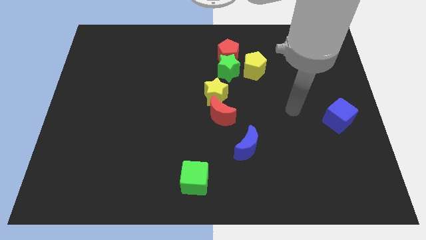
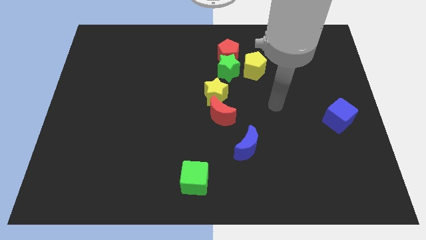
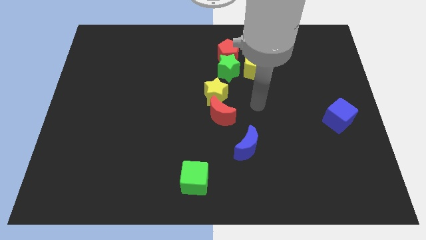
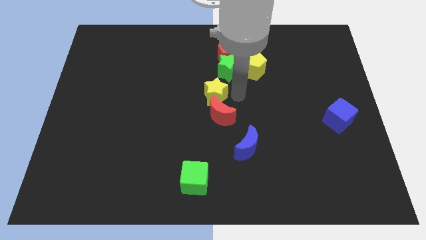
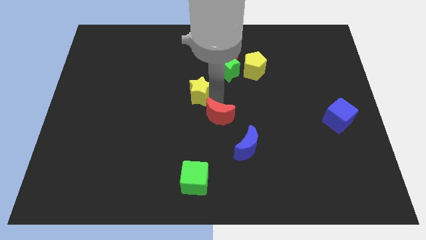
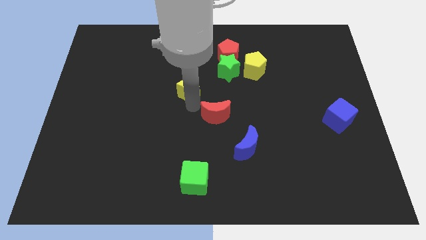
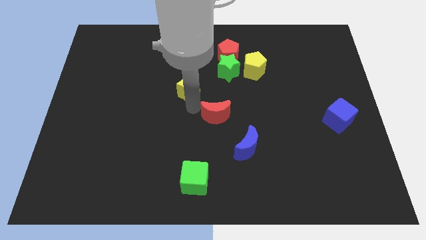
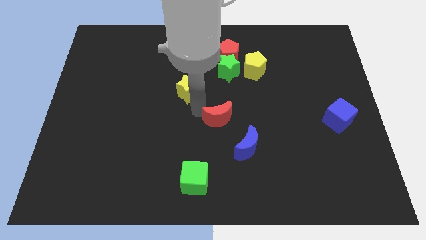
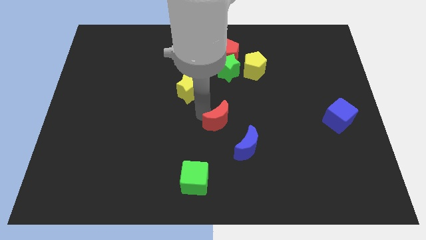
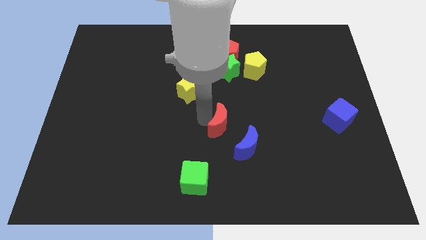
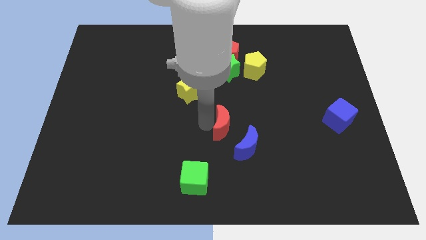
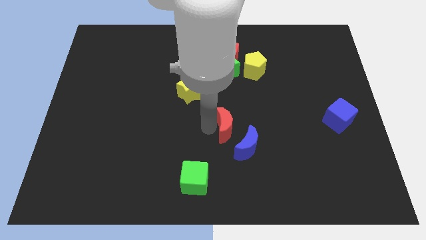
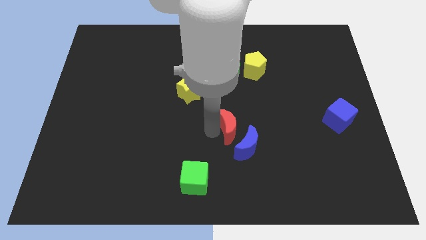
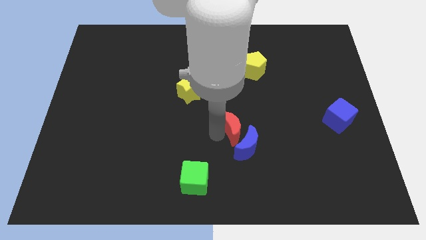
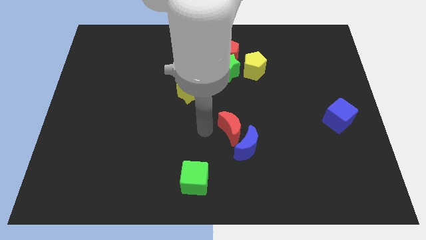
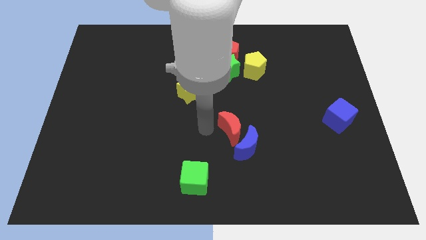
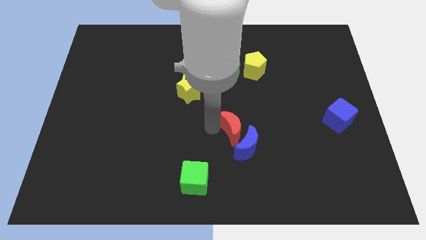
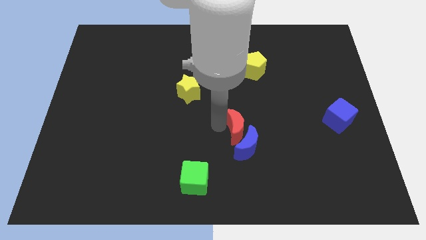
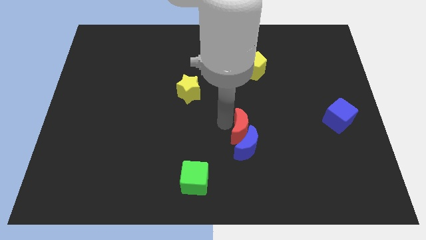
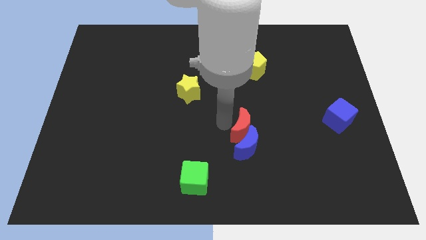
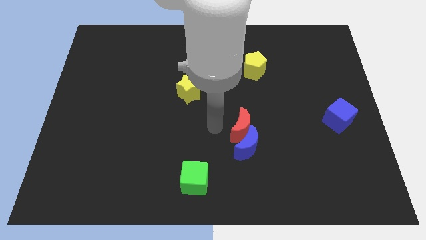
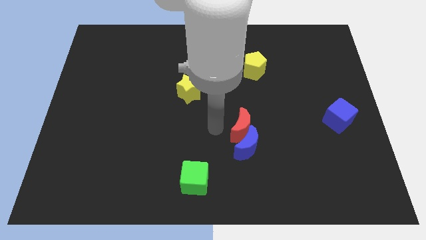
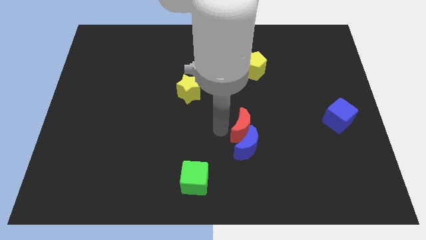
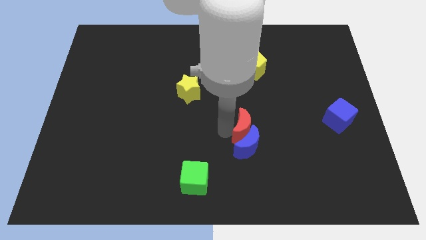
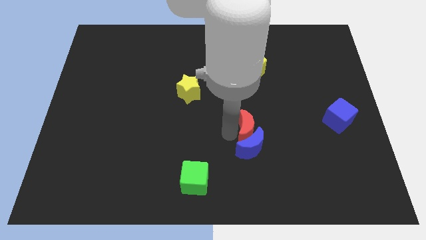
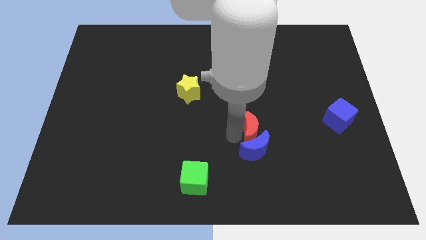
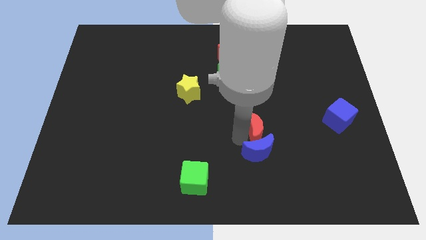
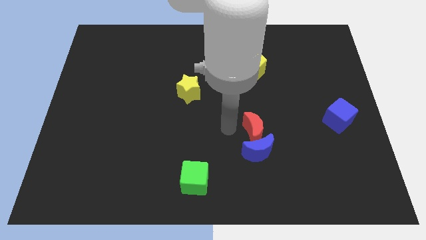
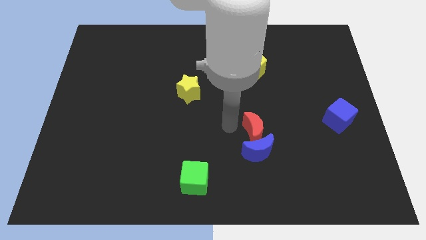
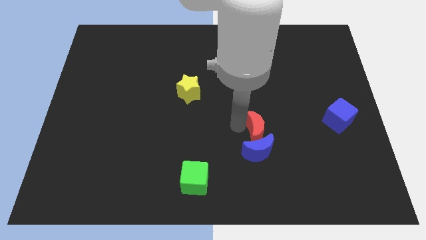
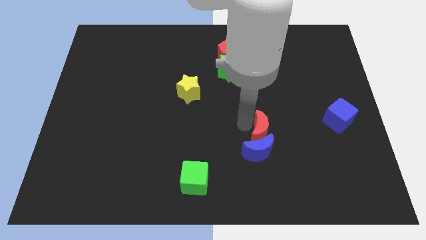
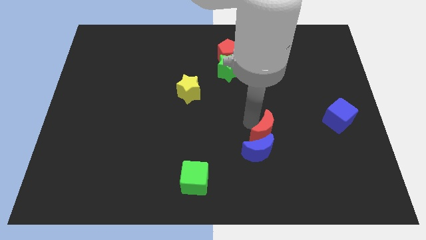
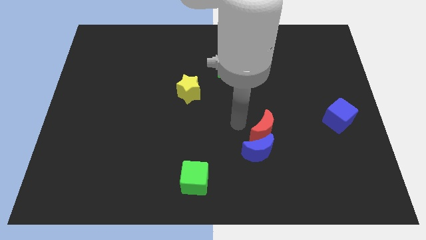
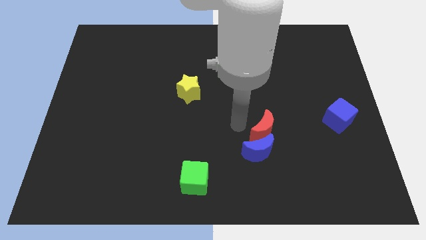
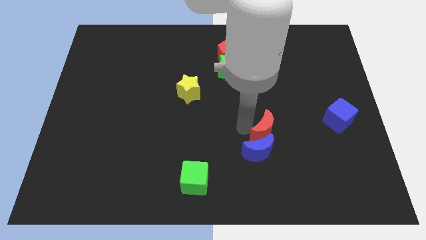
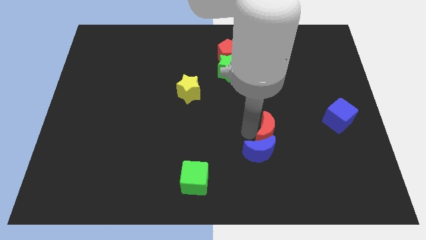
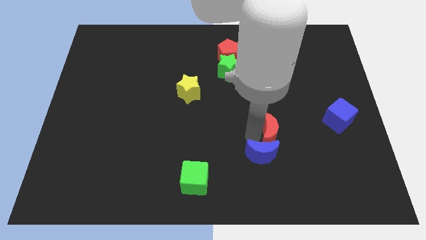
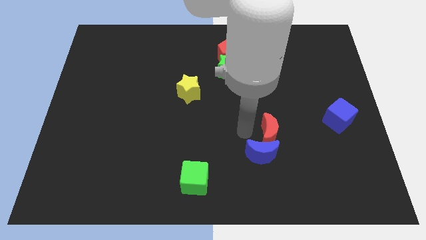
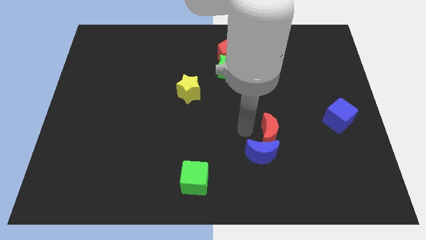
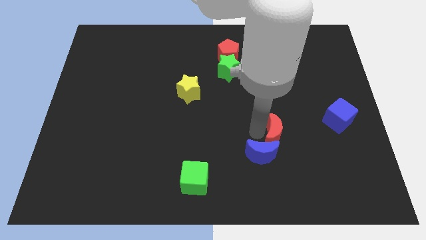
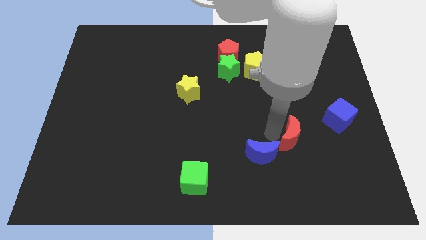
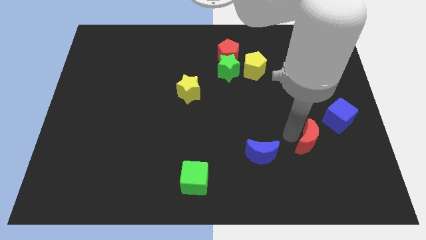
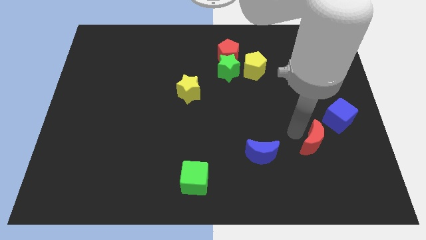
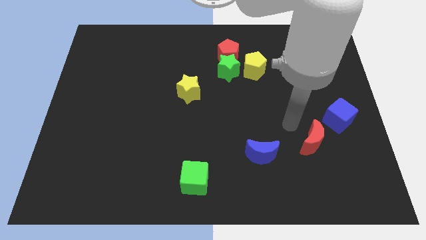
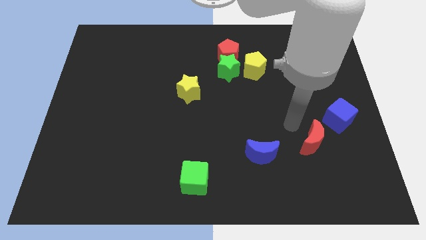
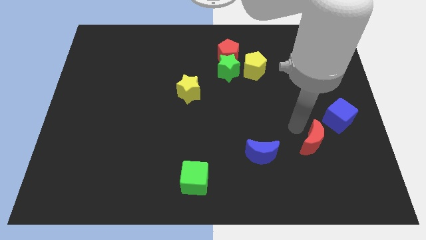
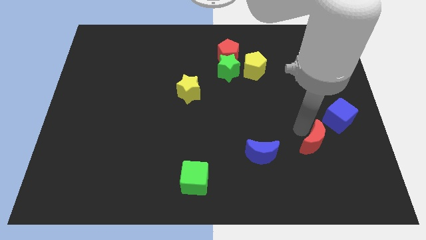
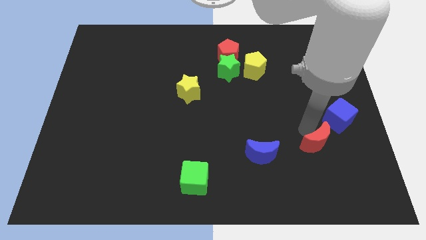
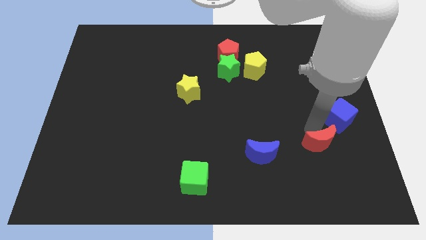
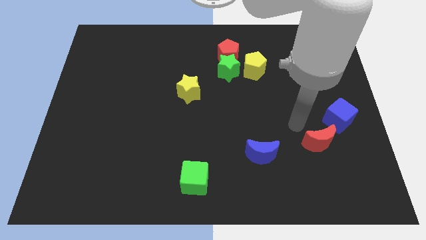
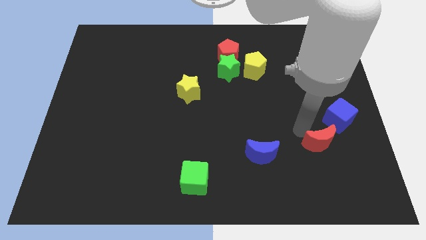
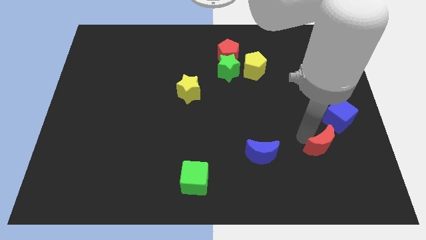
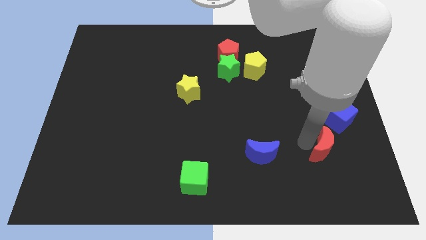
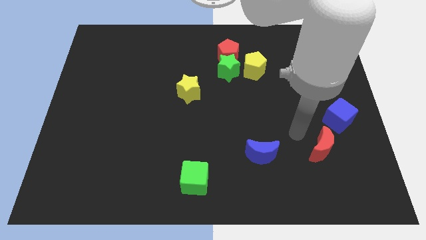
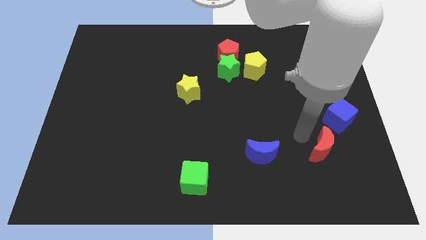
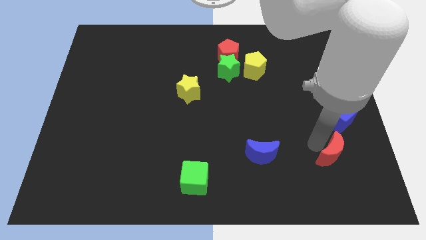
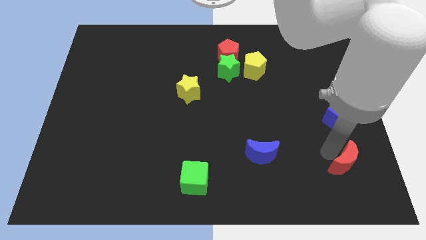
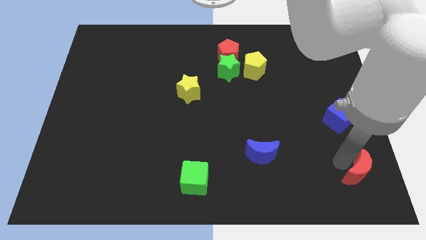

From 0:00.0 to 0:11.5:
slide the red moon to the bottom right corner

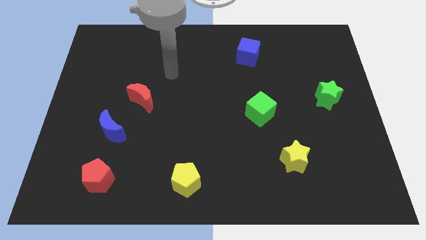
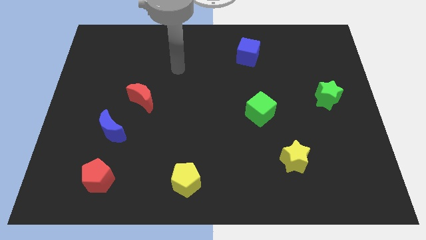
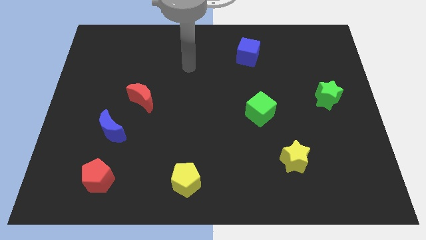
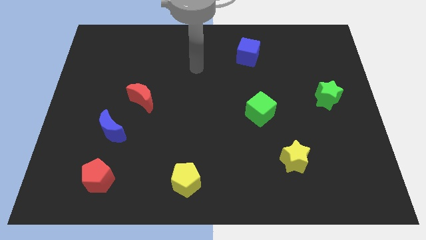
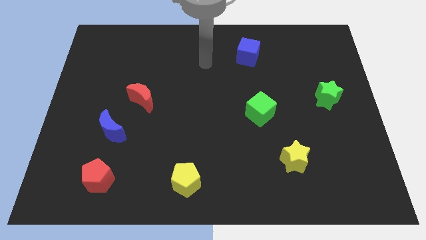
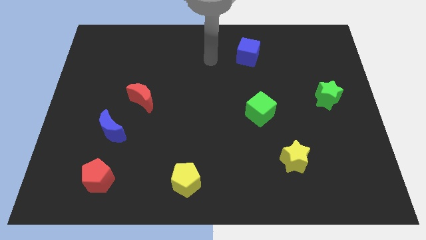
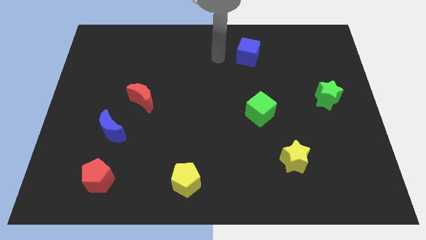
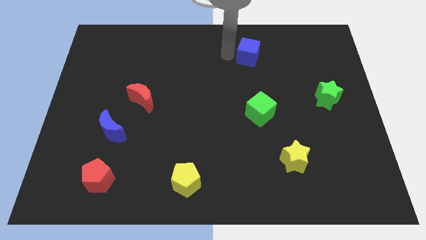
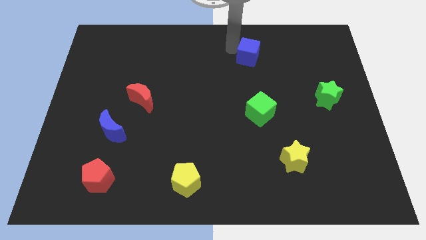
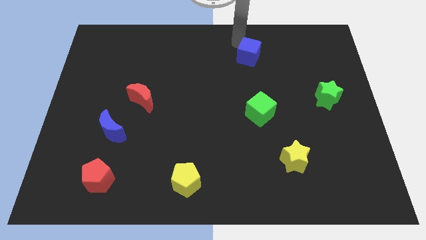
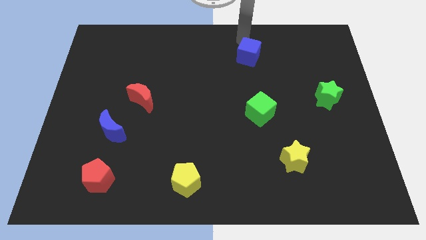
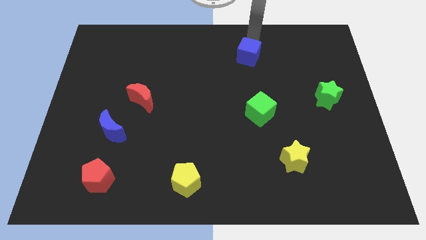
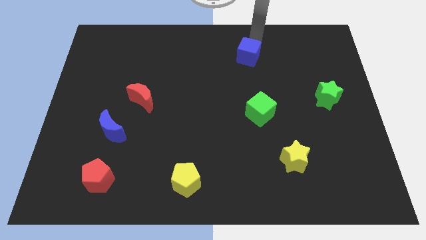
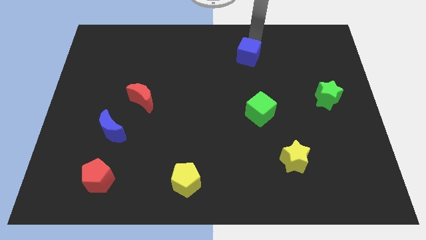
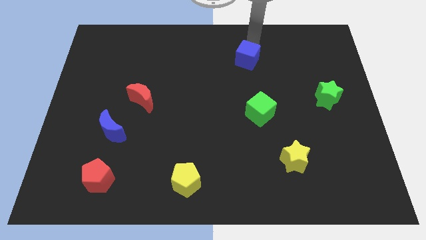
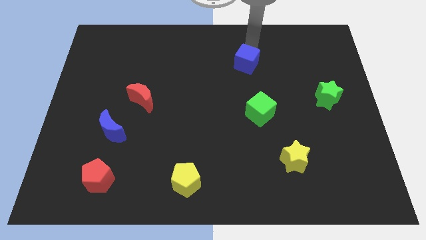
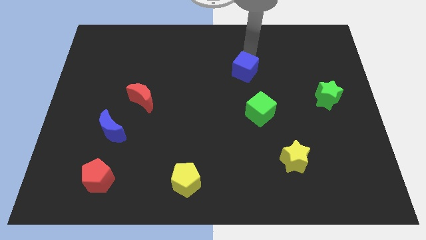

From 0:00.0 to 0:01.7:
move the blue cube to the center of the board
